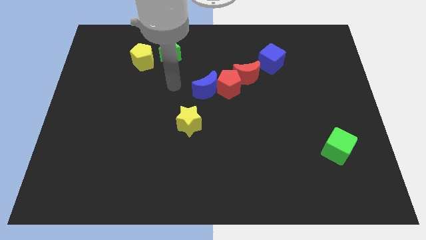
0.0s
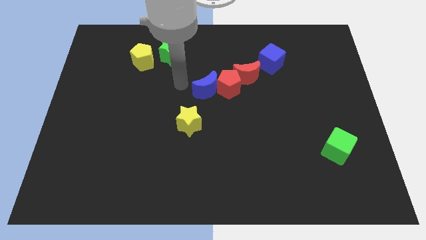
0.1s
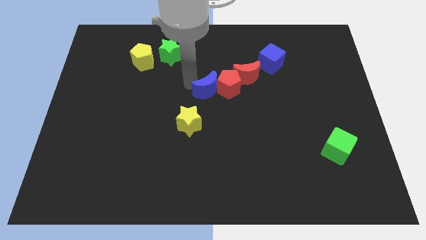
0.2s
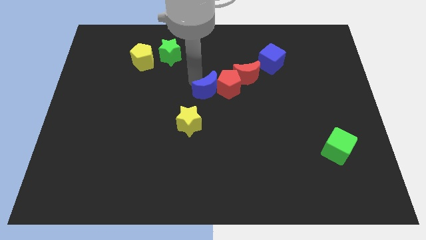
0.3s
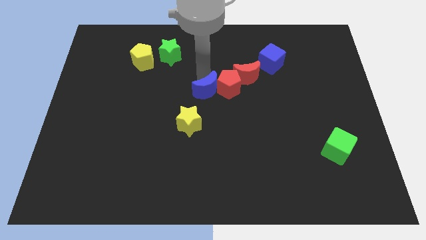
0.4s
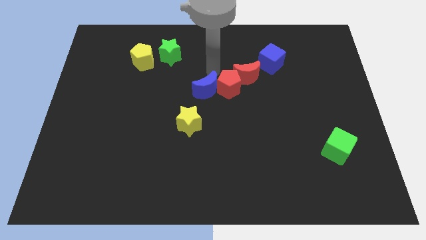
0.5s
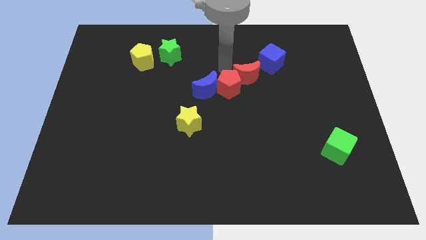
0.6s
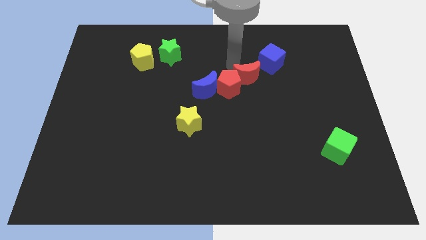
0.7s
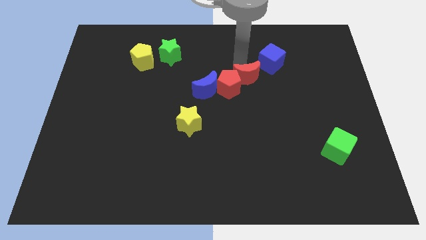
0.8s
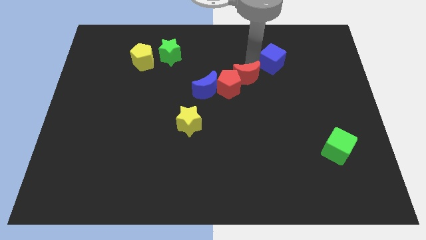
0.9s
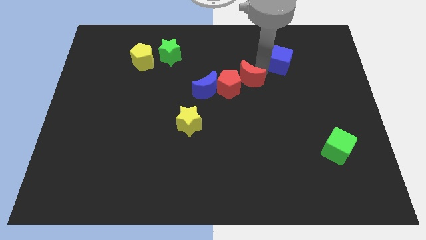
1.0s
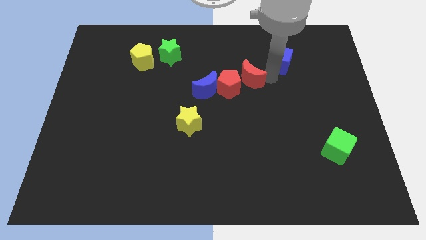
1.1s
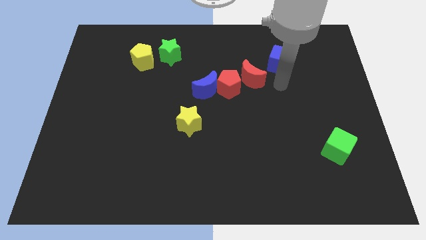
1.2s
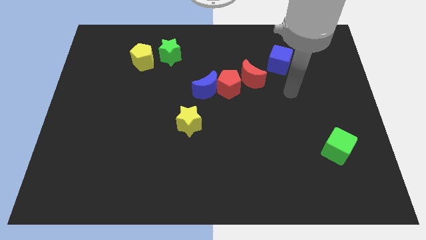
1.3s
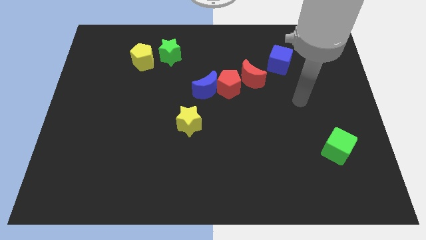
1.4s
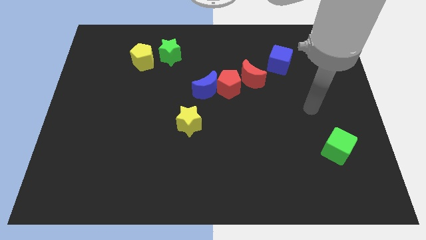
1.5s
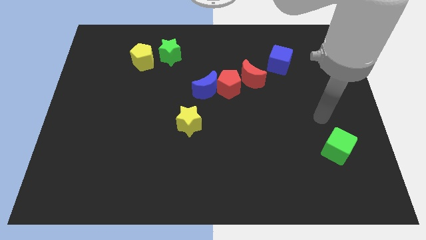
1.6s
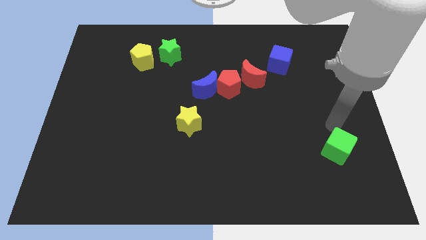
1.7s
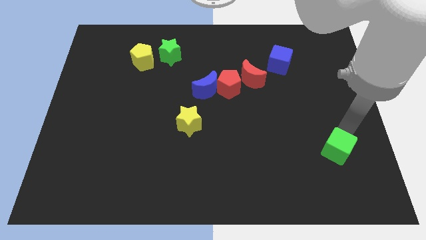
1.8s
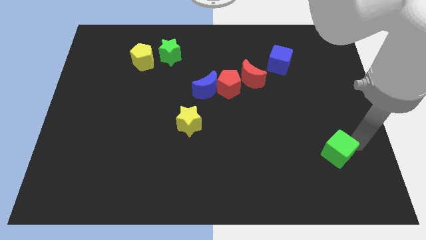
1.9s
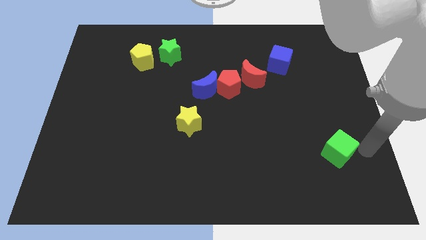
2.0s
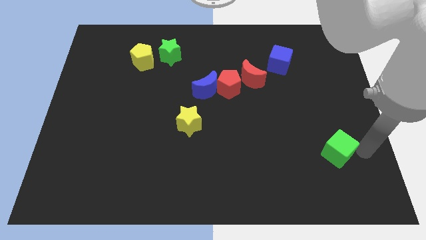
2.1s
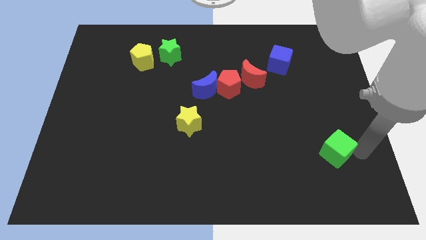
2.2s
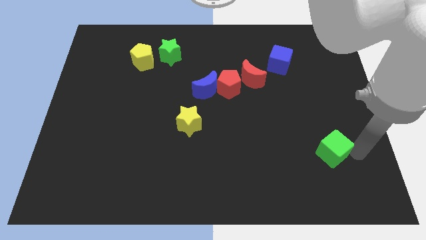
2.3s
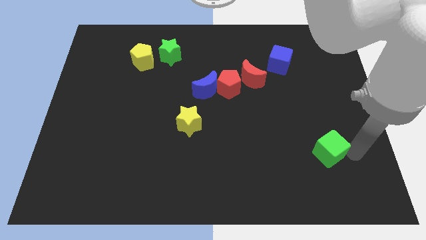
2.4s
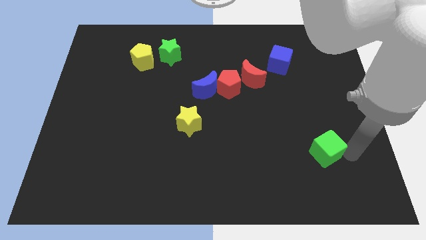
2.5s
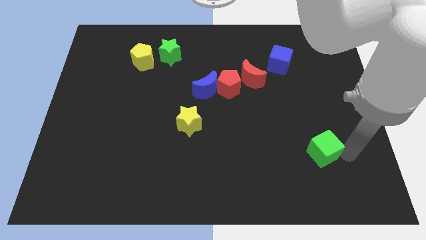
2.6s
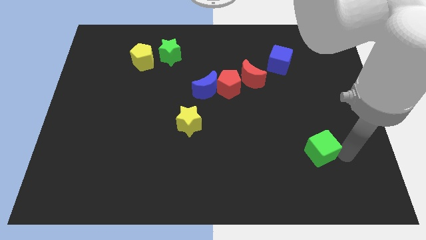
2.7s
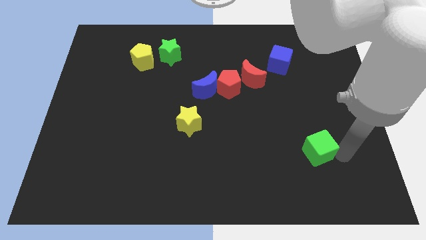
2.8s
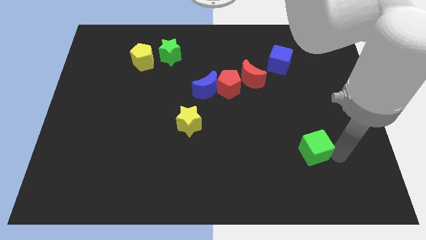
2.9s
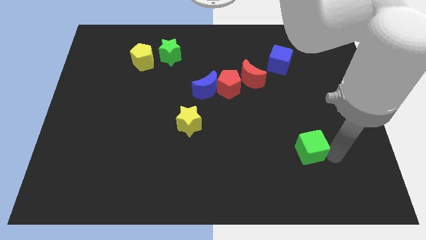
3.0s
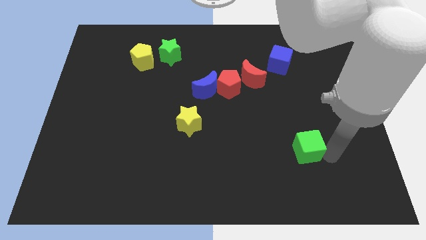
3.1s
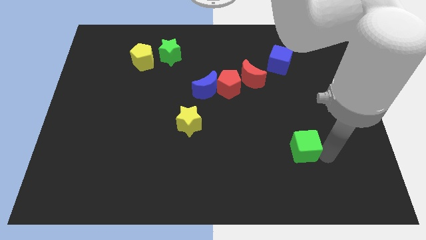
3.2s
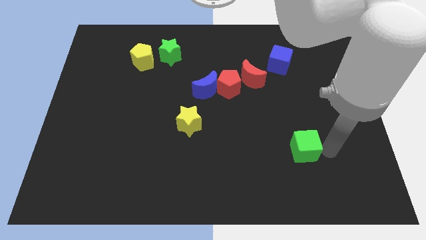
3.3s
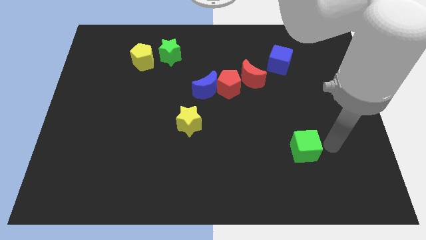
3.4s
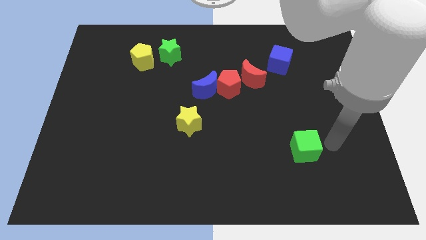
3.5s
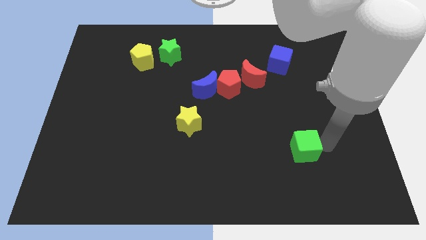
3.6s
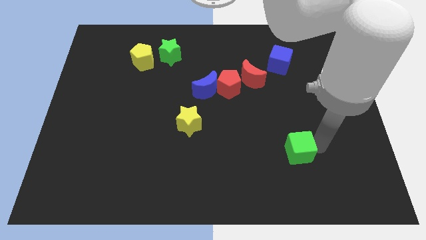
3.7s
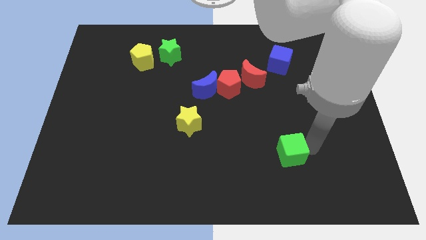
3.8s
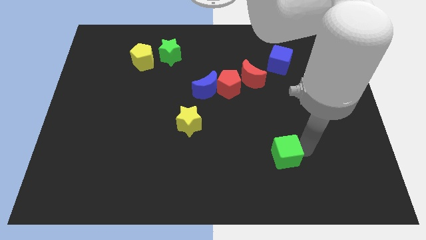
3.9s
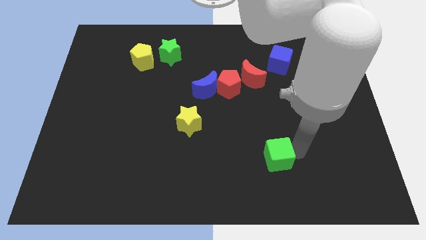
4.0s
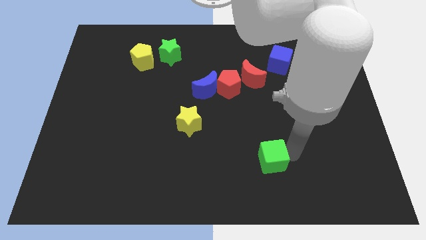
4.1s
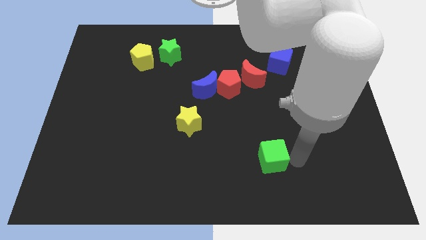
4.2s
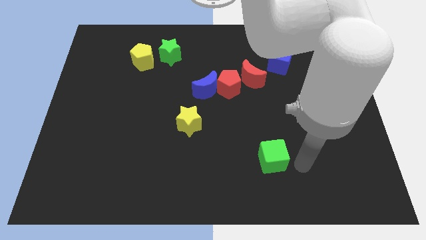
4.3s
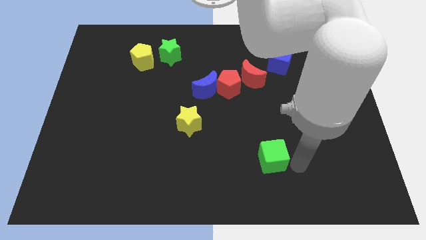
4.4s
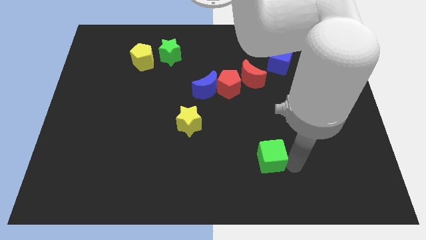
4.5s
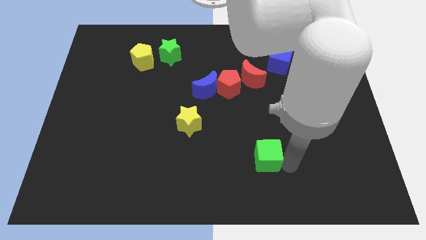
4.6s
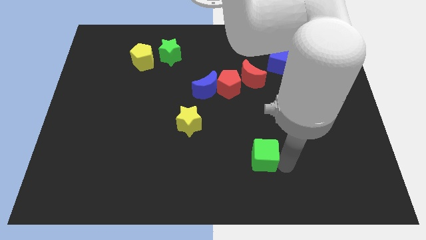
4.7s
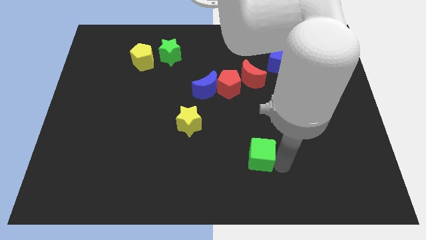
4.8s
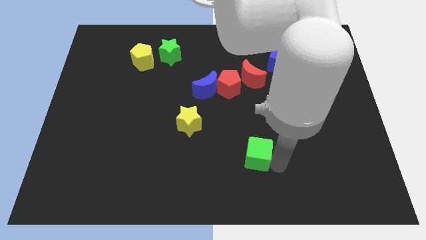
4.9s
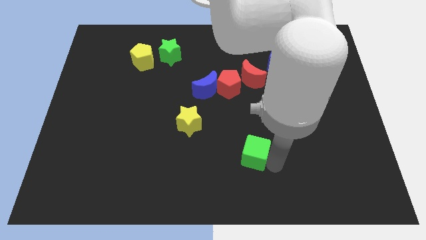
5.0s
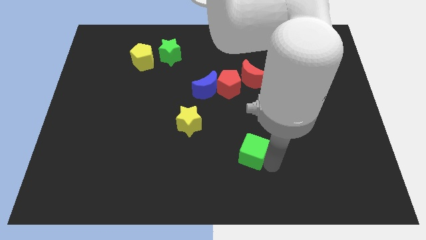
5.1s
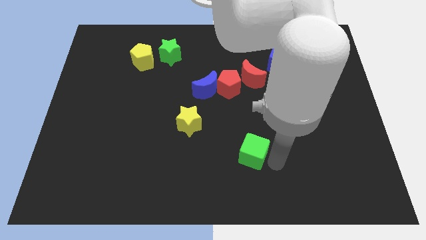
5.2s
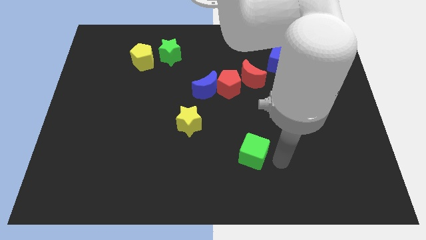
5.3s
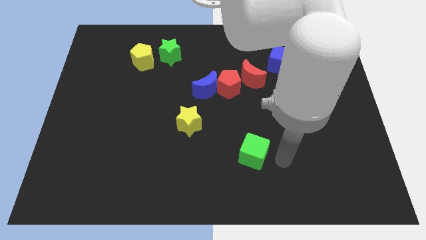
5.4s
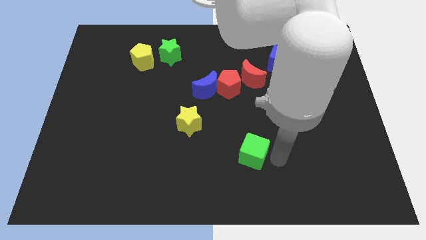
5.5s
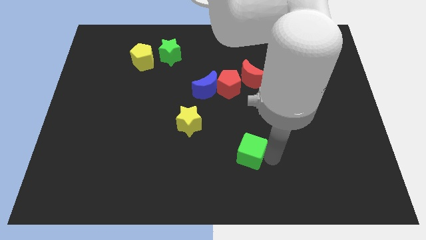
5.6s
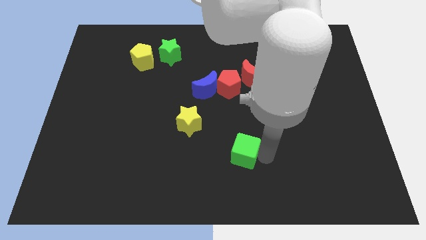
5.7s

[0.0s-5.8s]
slide the green cube left

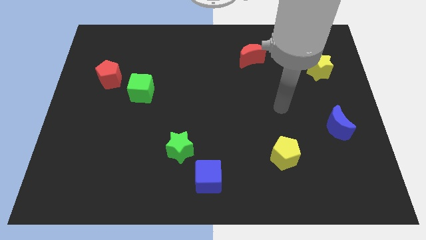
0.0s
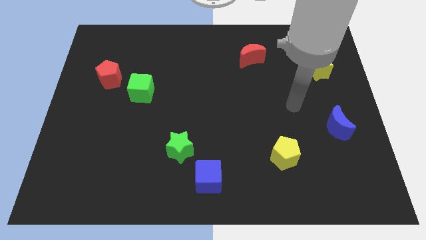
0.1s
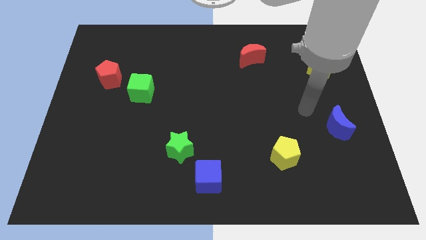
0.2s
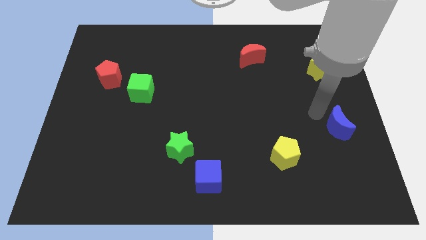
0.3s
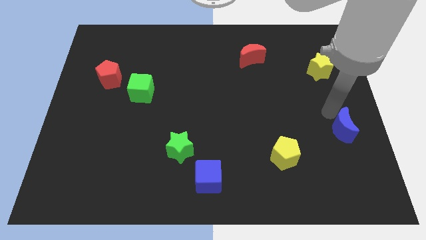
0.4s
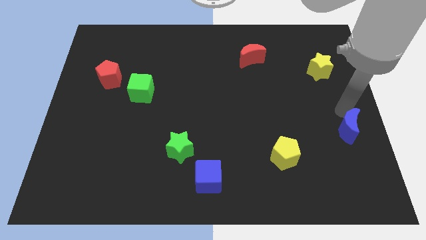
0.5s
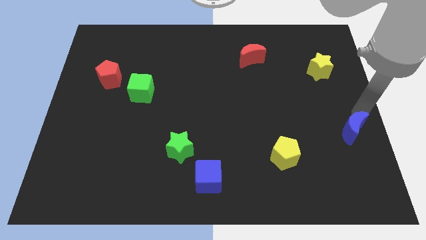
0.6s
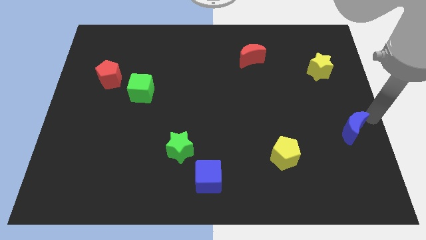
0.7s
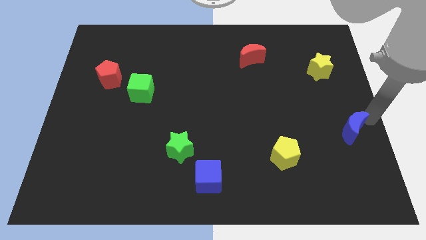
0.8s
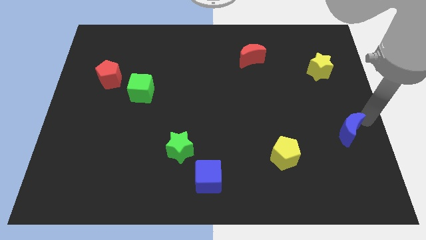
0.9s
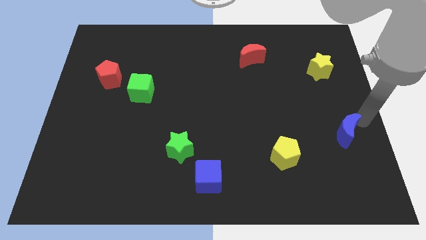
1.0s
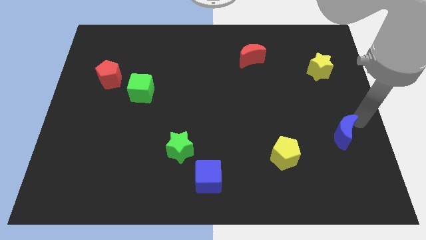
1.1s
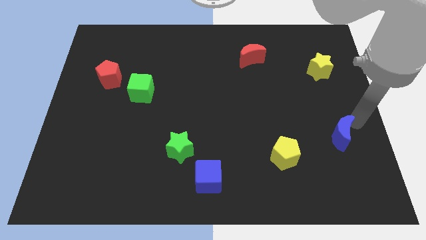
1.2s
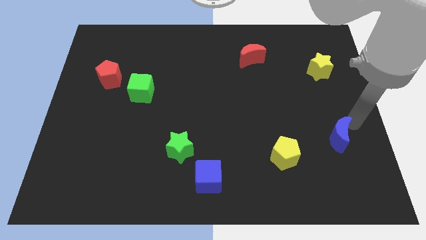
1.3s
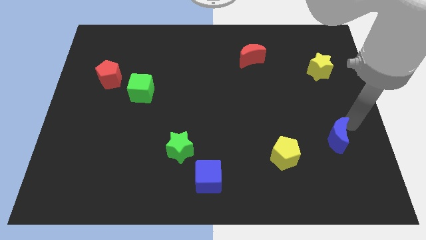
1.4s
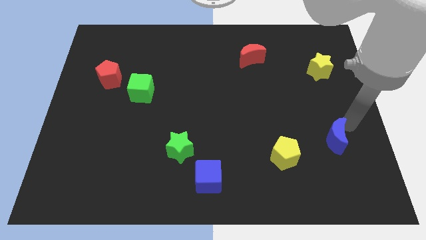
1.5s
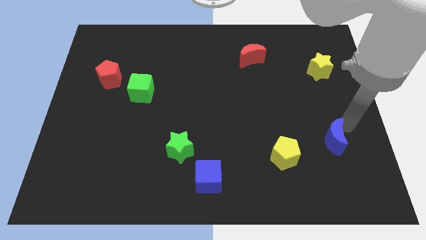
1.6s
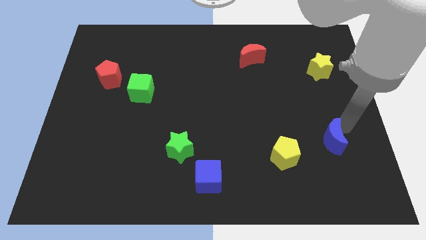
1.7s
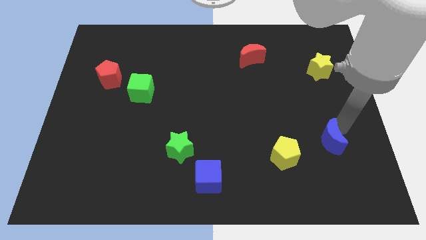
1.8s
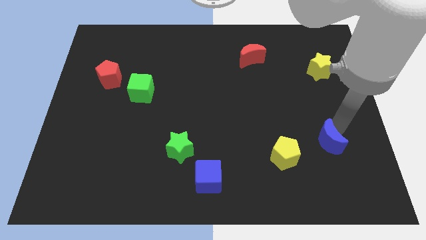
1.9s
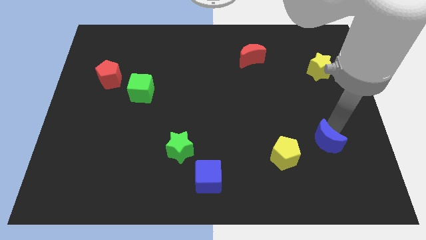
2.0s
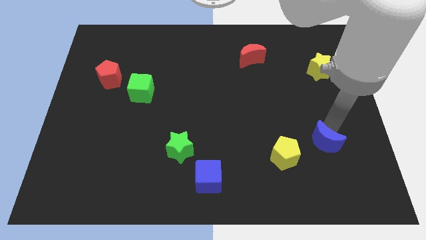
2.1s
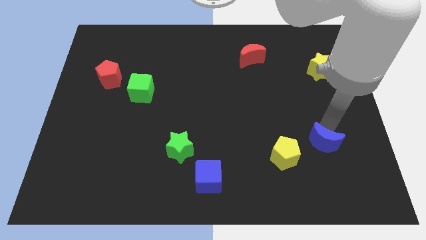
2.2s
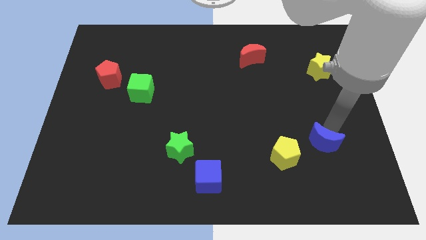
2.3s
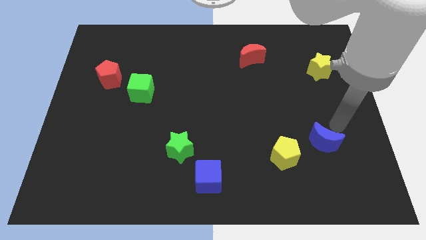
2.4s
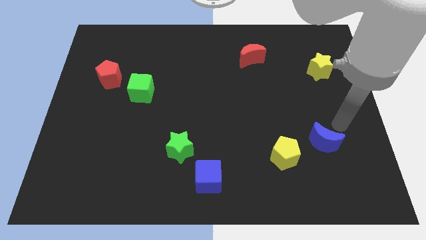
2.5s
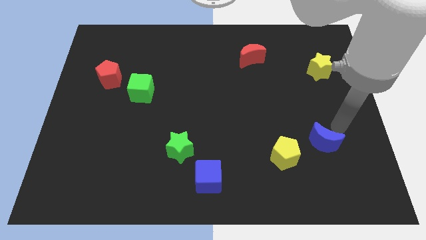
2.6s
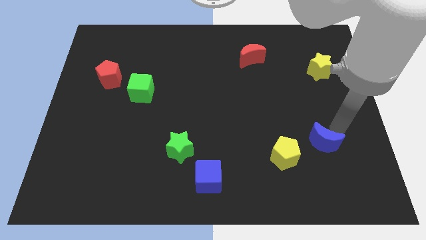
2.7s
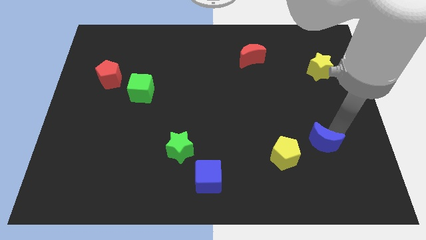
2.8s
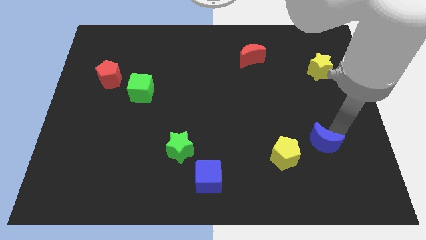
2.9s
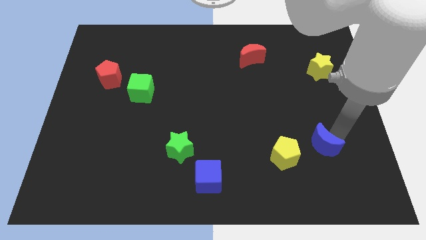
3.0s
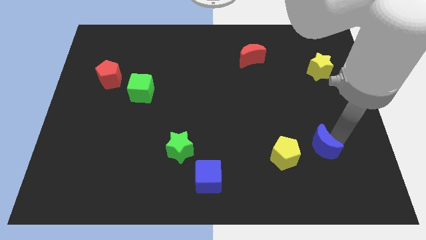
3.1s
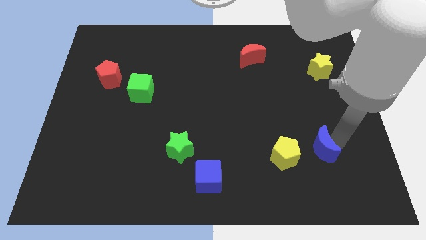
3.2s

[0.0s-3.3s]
slightly push the blue moon diagonally down and left
